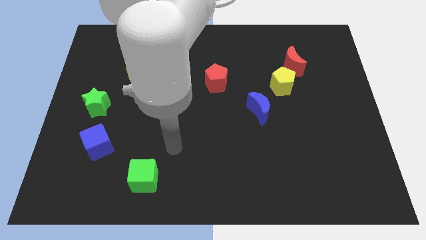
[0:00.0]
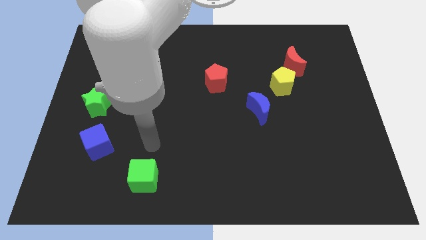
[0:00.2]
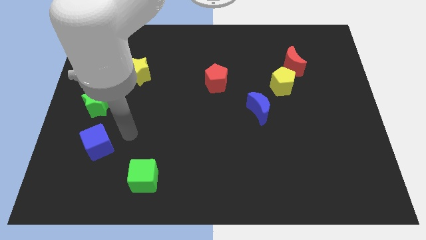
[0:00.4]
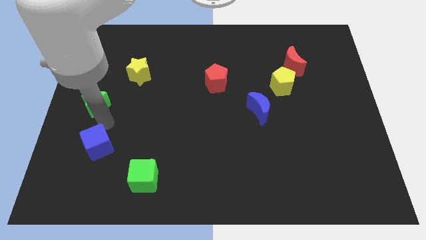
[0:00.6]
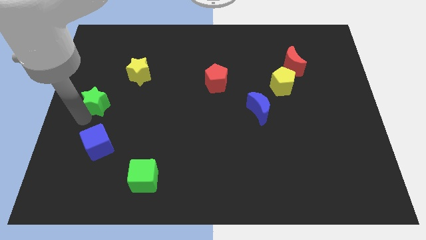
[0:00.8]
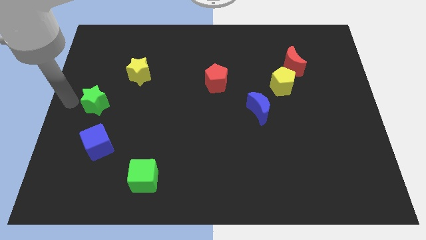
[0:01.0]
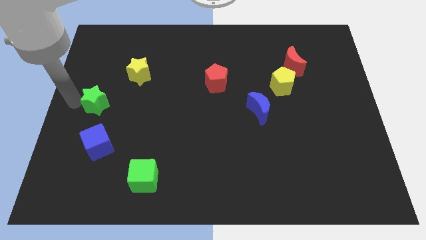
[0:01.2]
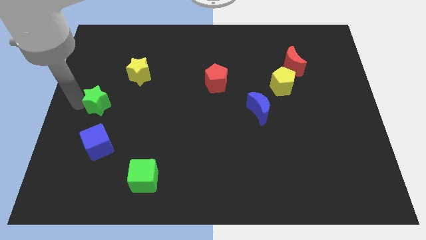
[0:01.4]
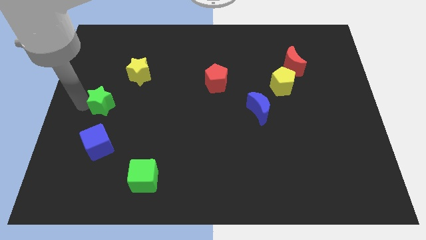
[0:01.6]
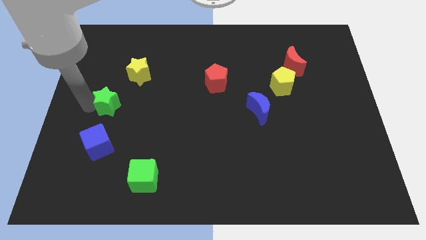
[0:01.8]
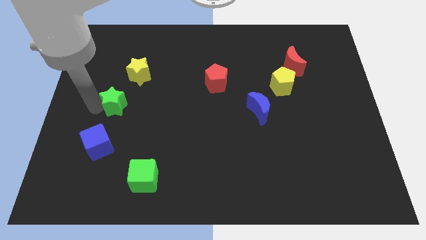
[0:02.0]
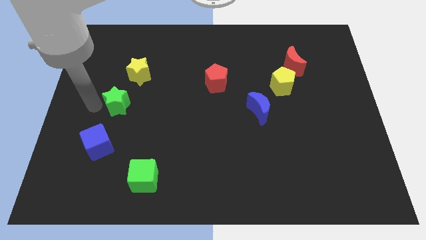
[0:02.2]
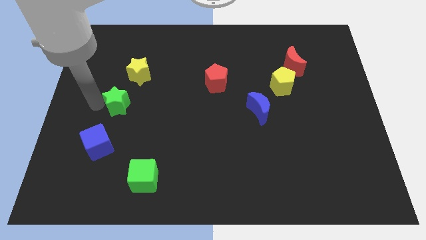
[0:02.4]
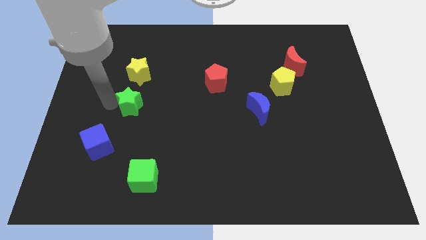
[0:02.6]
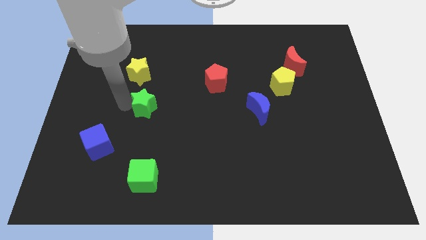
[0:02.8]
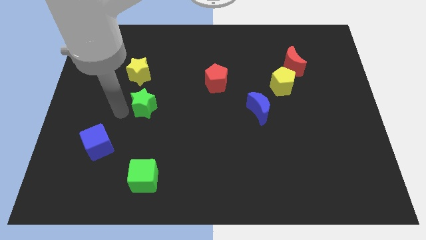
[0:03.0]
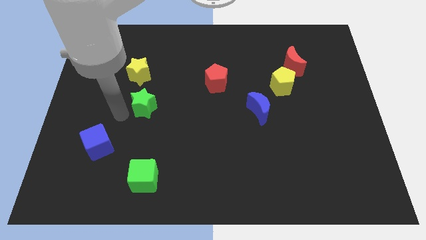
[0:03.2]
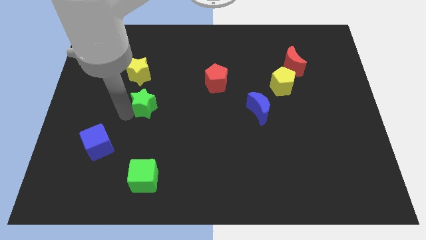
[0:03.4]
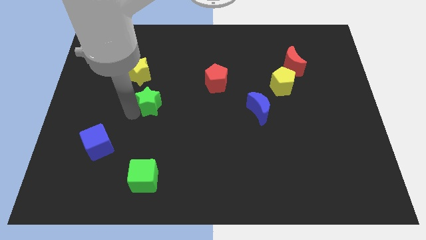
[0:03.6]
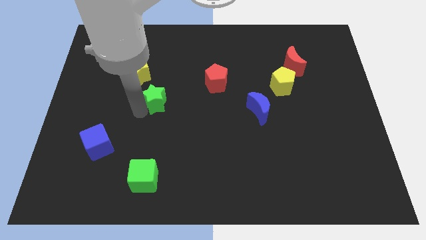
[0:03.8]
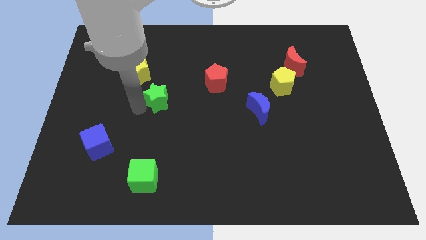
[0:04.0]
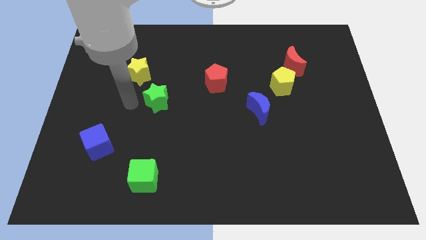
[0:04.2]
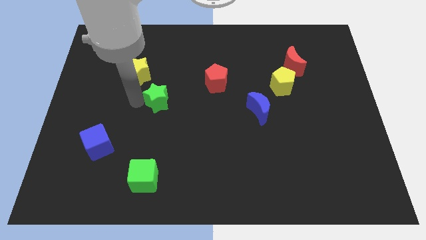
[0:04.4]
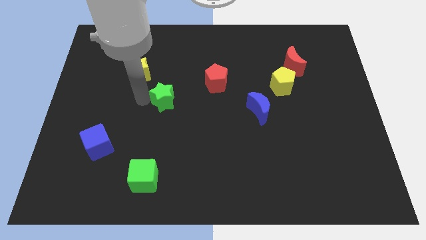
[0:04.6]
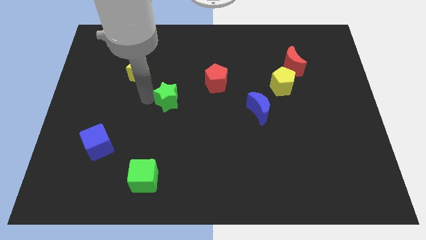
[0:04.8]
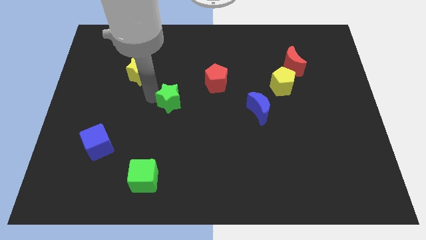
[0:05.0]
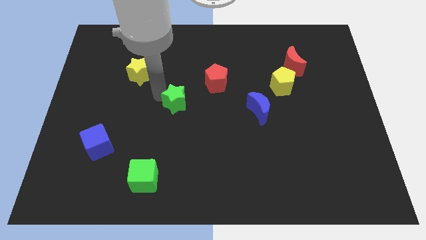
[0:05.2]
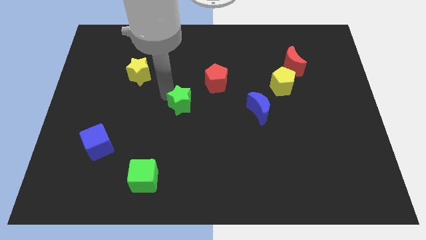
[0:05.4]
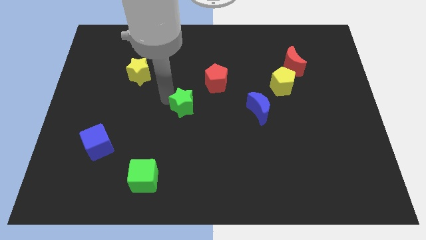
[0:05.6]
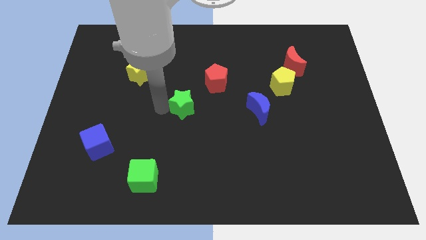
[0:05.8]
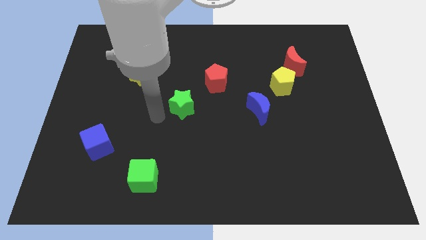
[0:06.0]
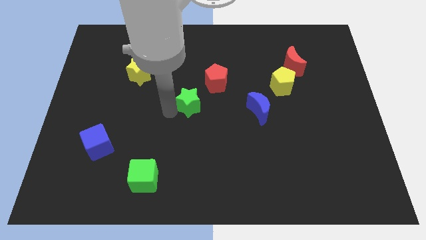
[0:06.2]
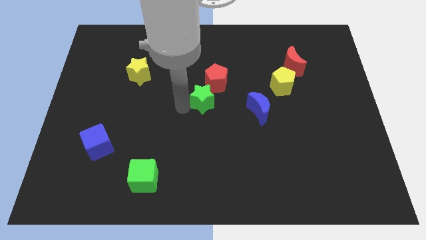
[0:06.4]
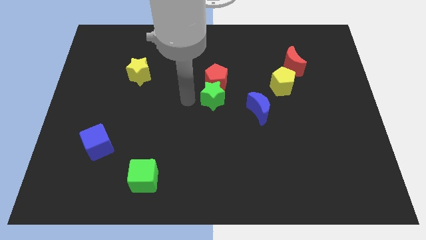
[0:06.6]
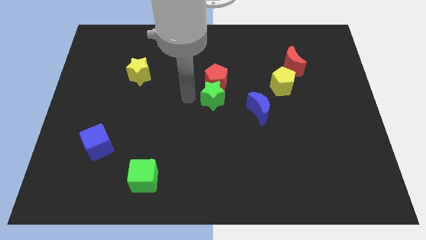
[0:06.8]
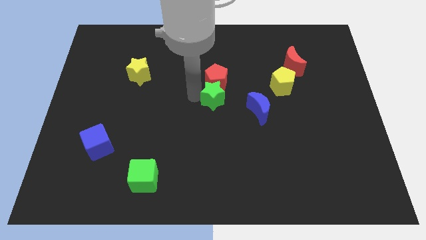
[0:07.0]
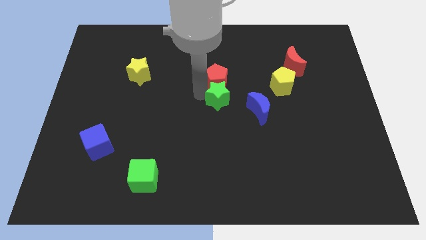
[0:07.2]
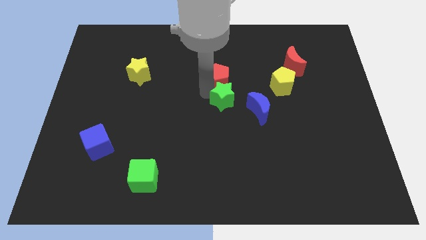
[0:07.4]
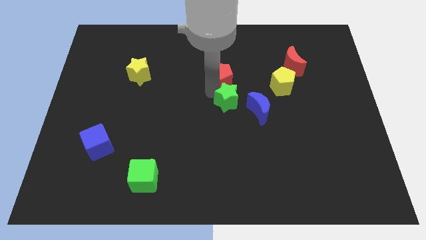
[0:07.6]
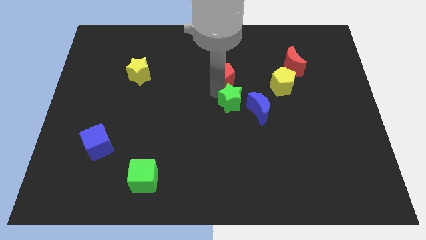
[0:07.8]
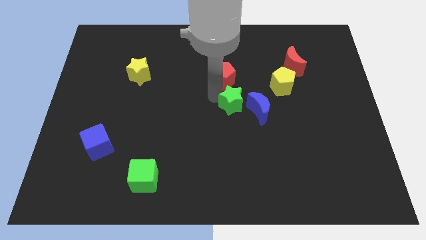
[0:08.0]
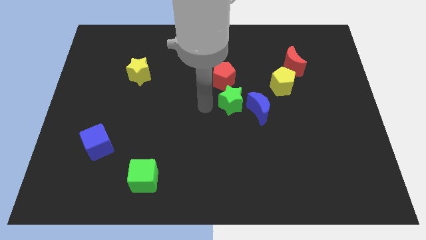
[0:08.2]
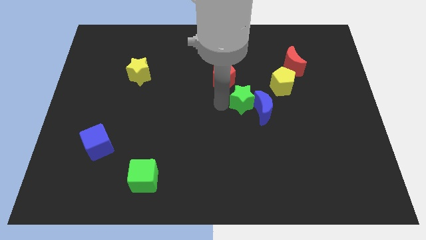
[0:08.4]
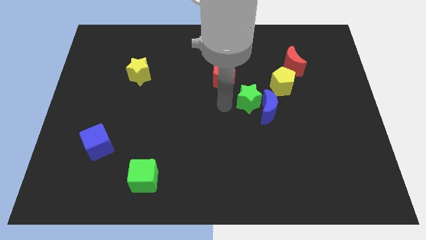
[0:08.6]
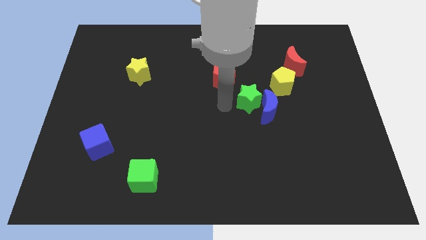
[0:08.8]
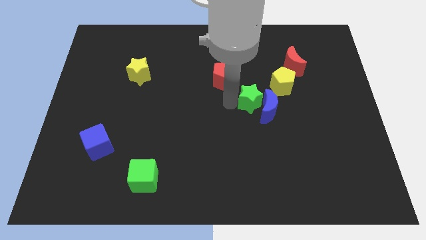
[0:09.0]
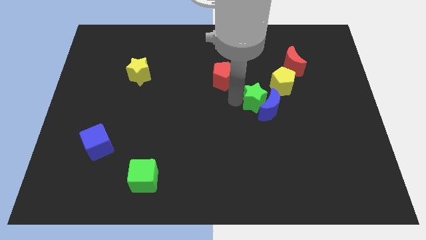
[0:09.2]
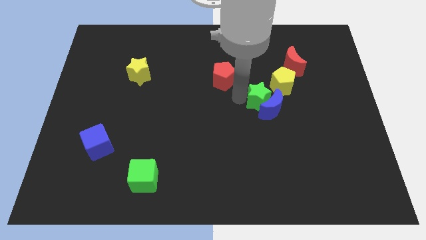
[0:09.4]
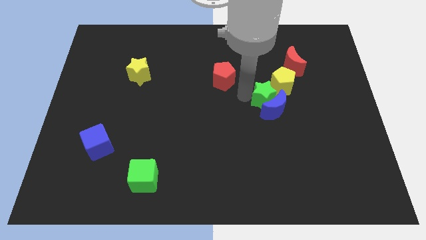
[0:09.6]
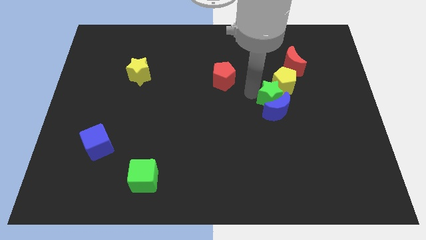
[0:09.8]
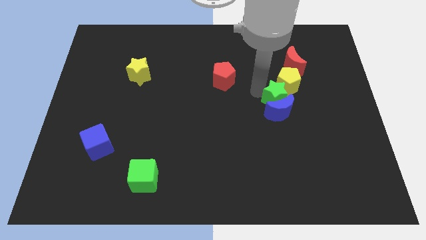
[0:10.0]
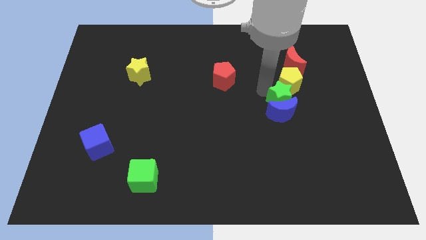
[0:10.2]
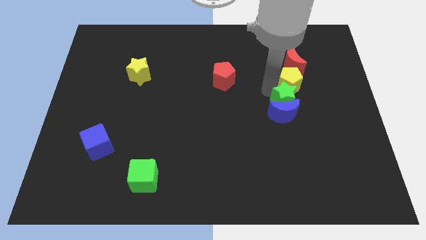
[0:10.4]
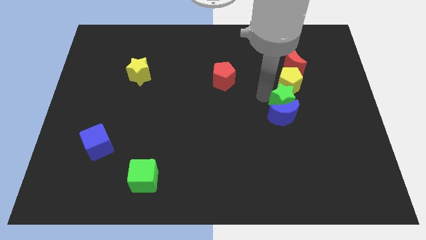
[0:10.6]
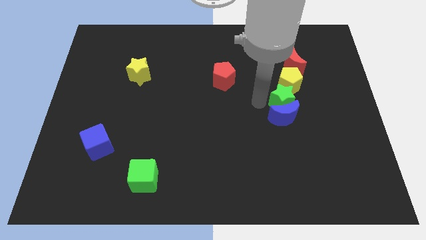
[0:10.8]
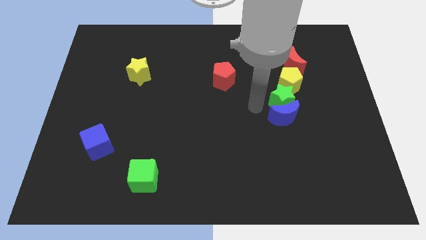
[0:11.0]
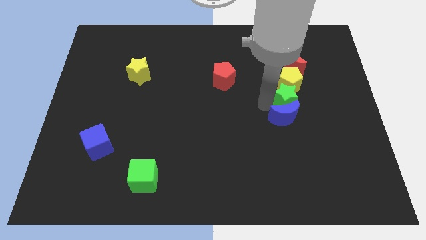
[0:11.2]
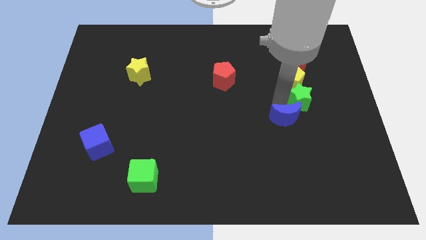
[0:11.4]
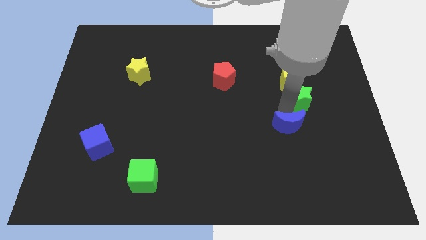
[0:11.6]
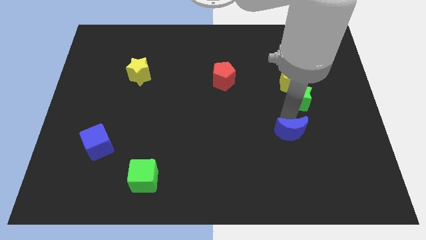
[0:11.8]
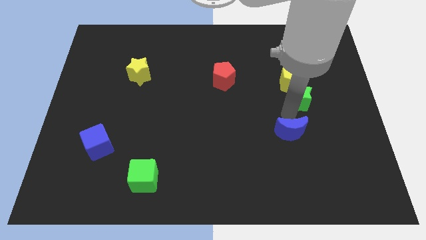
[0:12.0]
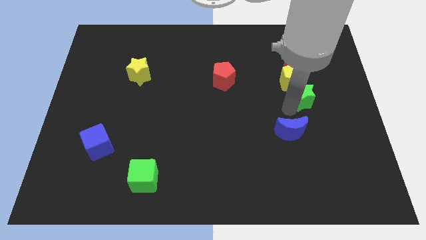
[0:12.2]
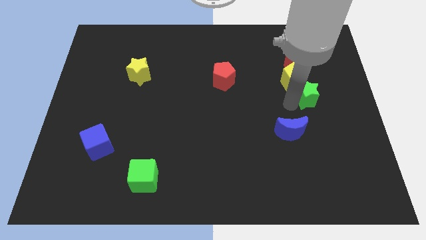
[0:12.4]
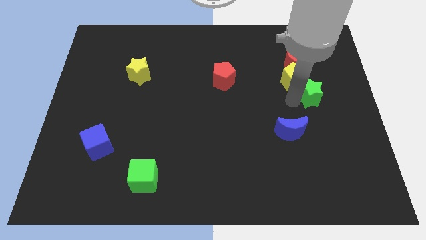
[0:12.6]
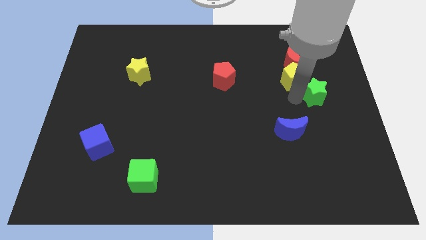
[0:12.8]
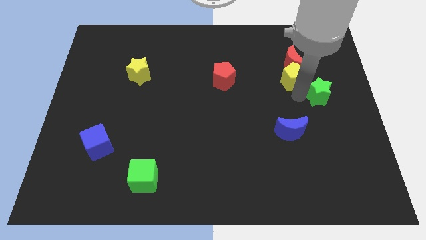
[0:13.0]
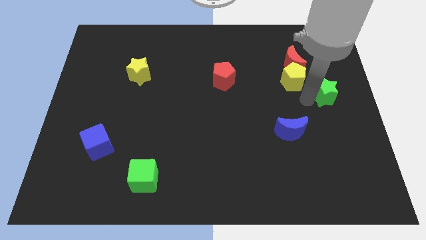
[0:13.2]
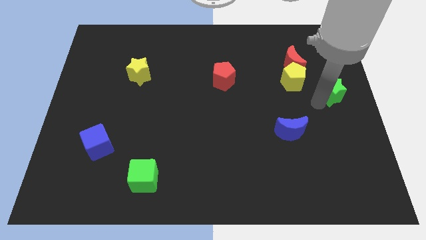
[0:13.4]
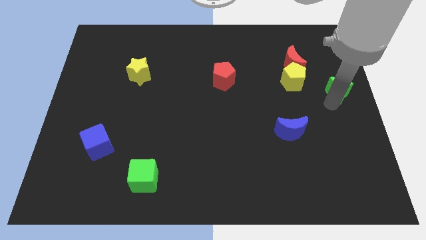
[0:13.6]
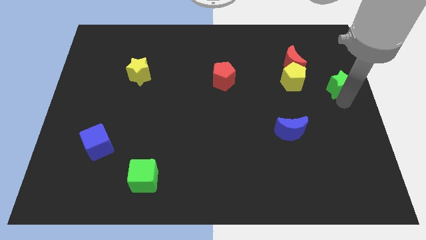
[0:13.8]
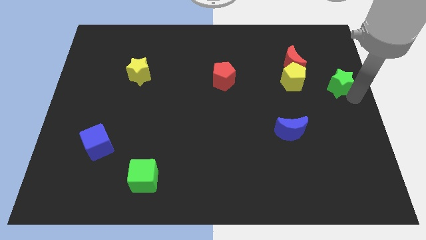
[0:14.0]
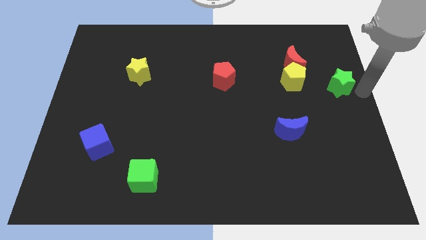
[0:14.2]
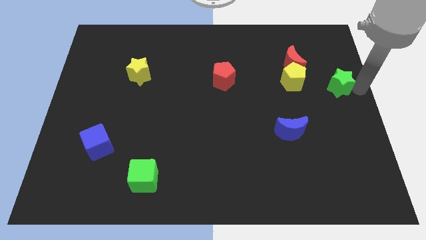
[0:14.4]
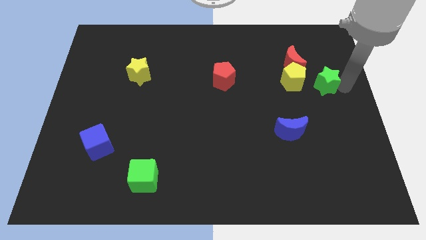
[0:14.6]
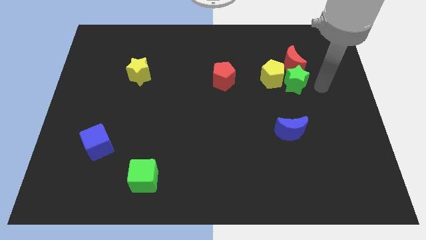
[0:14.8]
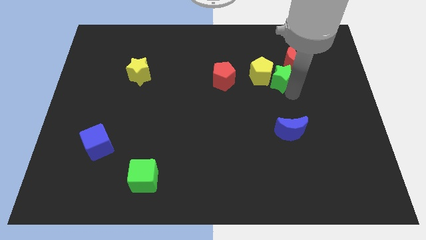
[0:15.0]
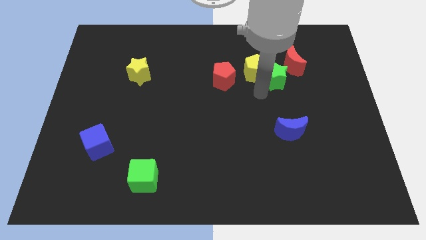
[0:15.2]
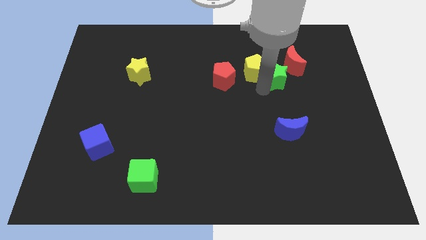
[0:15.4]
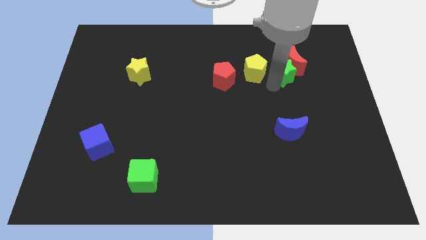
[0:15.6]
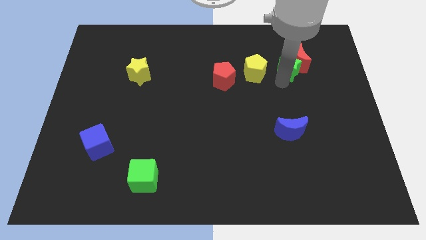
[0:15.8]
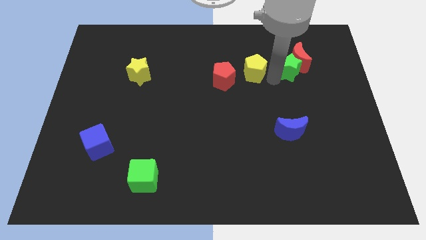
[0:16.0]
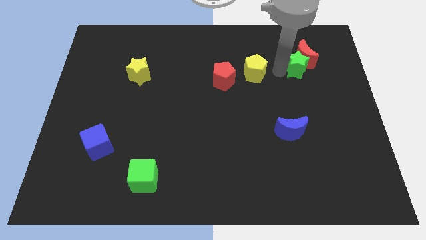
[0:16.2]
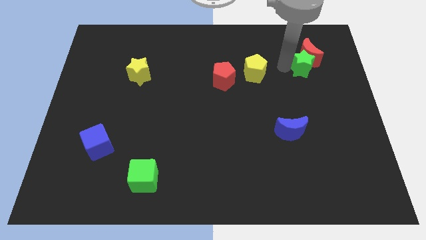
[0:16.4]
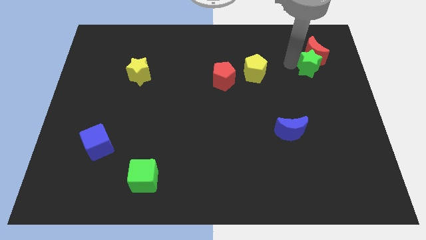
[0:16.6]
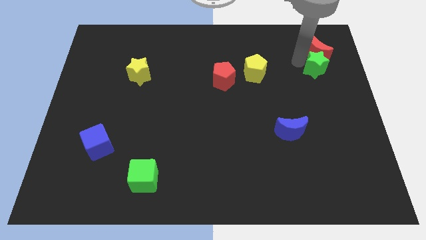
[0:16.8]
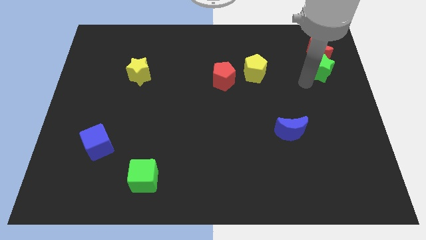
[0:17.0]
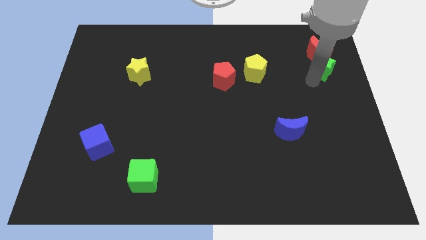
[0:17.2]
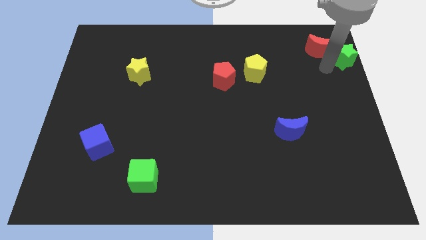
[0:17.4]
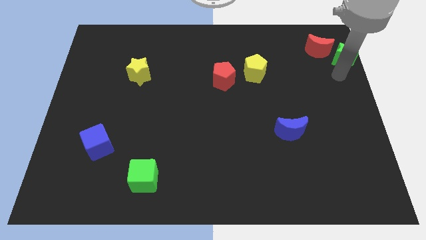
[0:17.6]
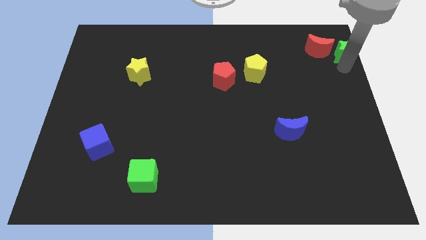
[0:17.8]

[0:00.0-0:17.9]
slide the green star to the top right
